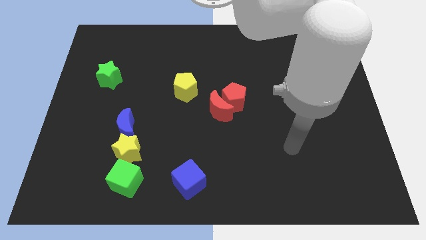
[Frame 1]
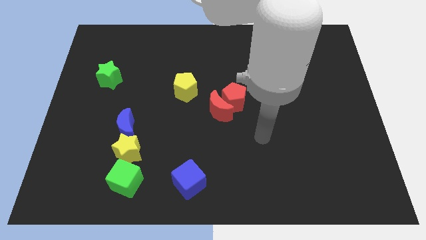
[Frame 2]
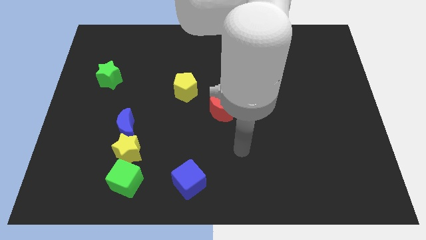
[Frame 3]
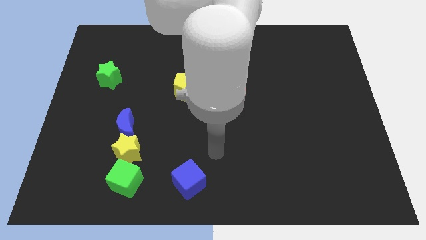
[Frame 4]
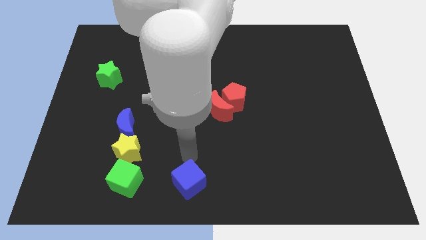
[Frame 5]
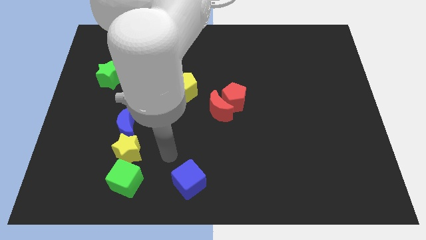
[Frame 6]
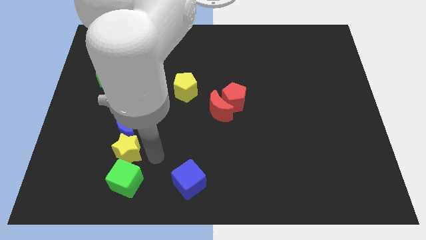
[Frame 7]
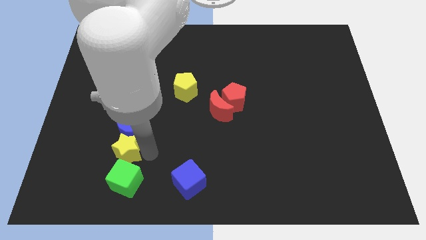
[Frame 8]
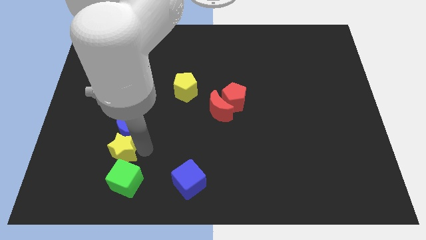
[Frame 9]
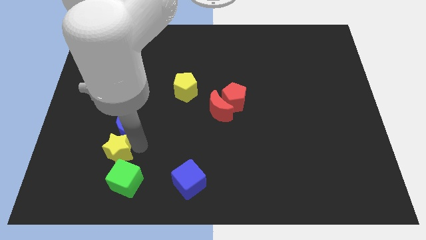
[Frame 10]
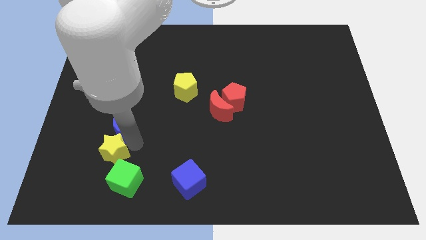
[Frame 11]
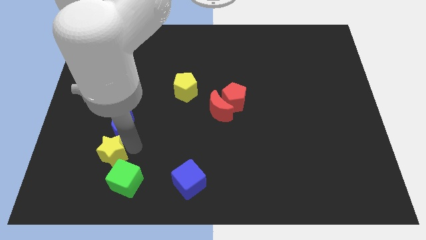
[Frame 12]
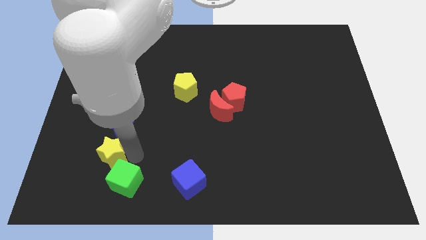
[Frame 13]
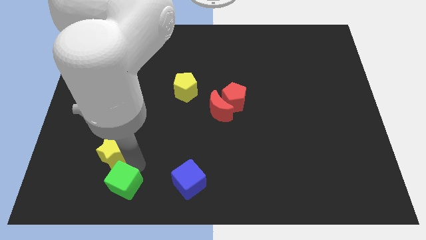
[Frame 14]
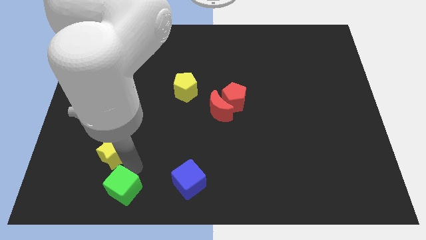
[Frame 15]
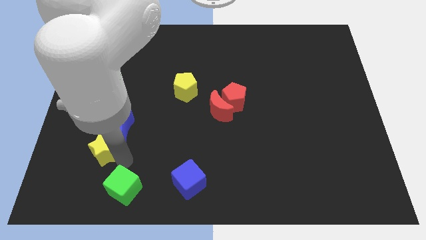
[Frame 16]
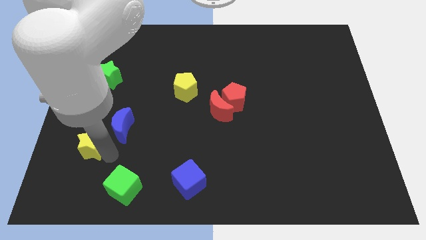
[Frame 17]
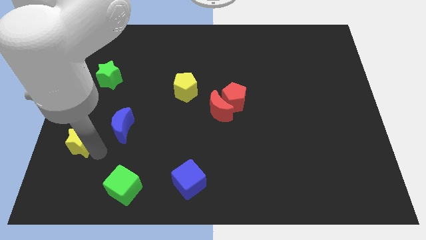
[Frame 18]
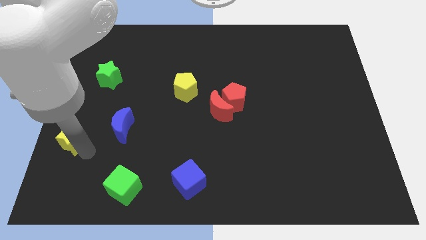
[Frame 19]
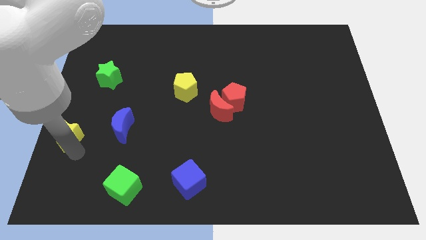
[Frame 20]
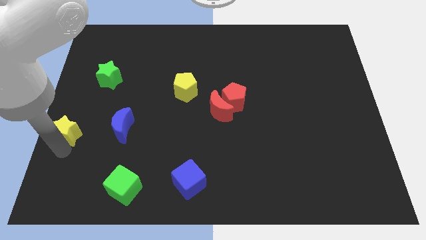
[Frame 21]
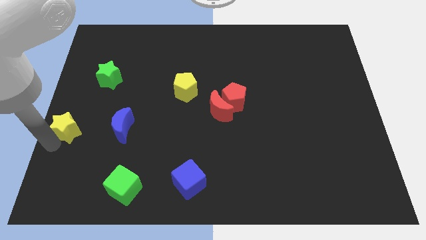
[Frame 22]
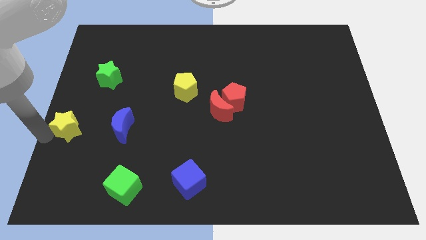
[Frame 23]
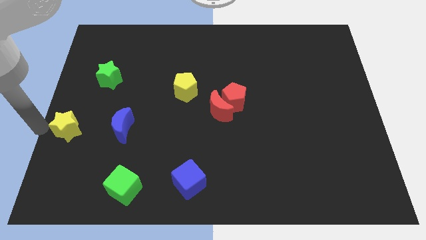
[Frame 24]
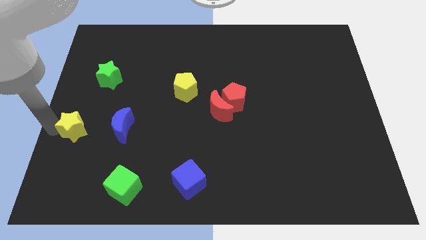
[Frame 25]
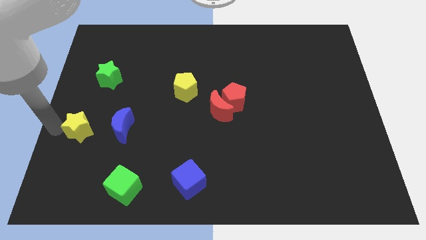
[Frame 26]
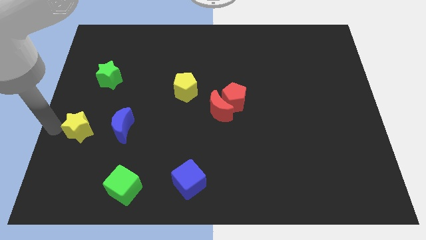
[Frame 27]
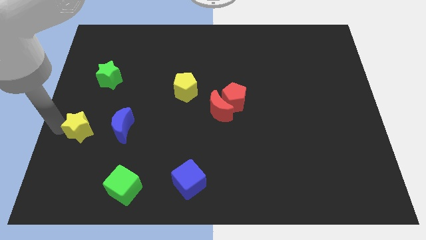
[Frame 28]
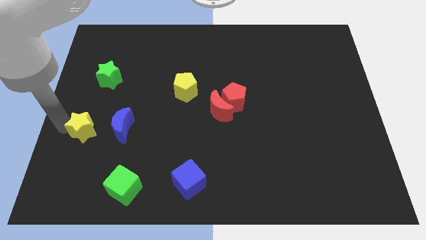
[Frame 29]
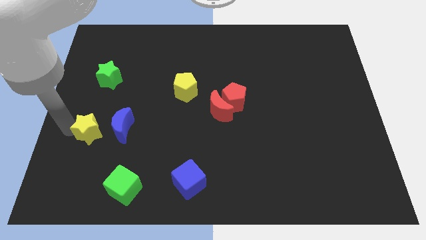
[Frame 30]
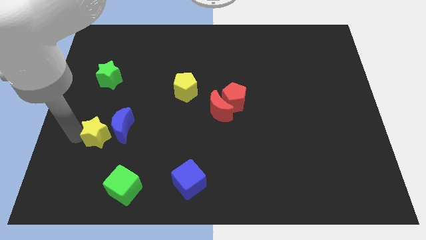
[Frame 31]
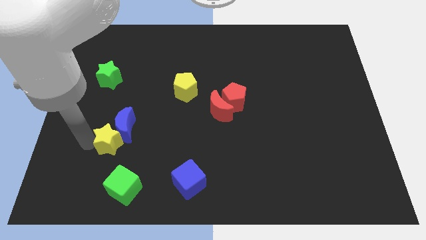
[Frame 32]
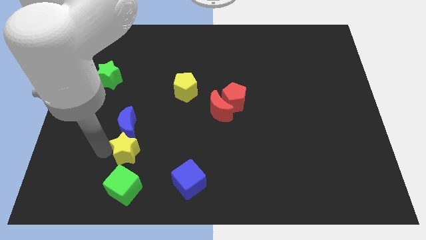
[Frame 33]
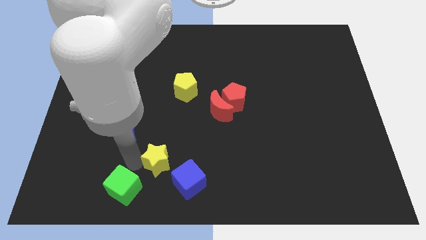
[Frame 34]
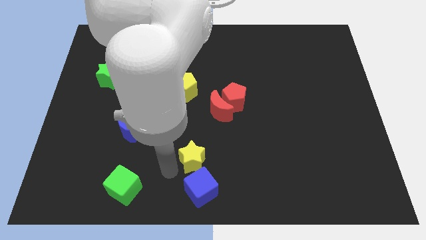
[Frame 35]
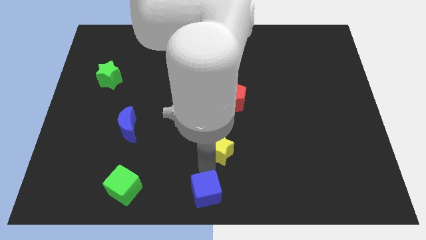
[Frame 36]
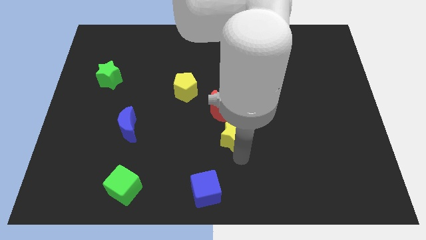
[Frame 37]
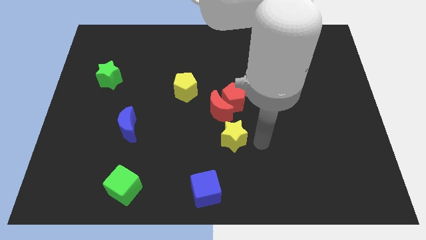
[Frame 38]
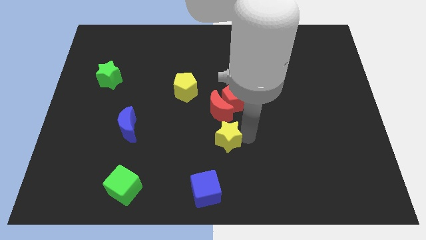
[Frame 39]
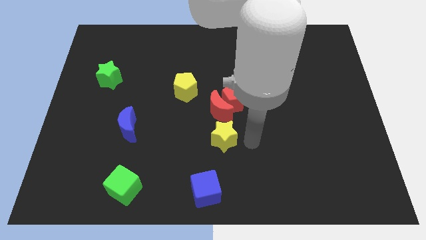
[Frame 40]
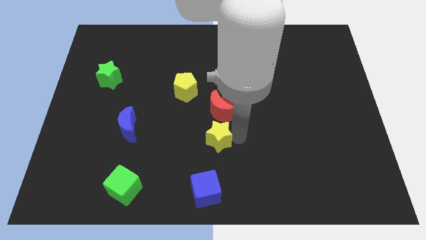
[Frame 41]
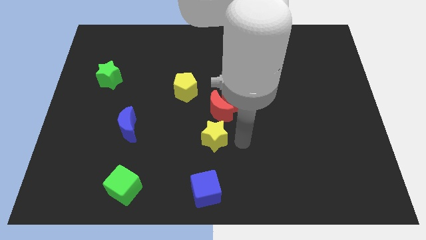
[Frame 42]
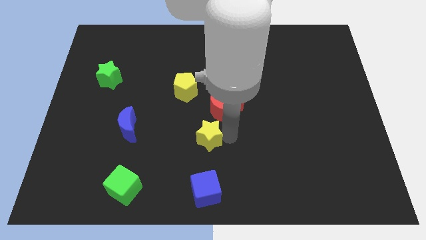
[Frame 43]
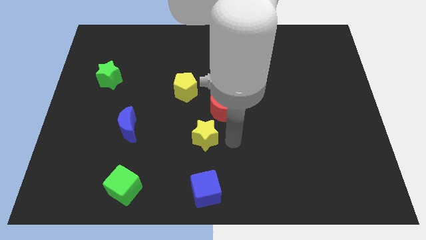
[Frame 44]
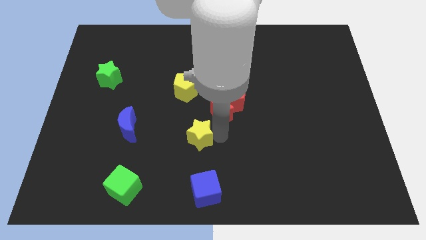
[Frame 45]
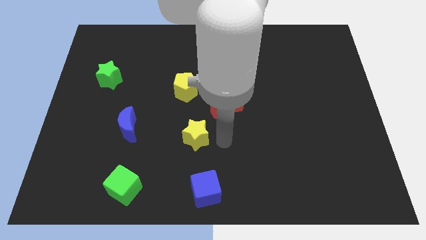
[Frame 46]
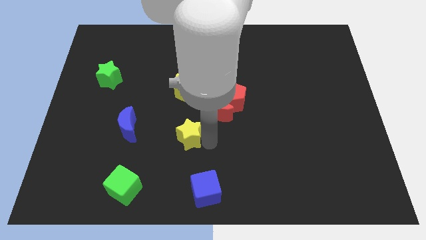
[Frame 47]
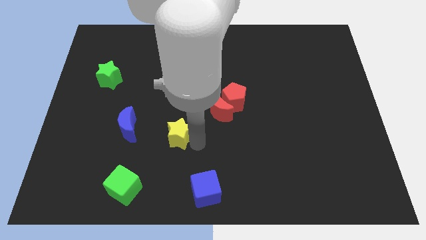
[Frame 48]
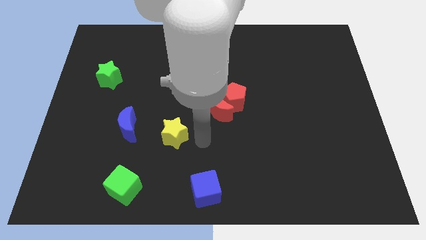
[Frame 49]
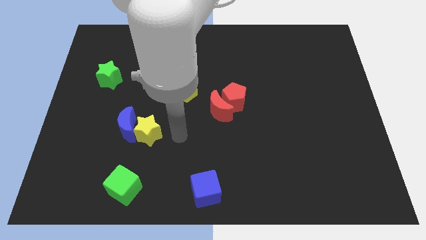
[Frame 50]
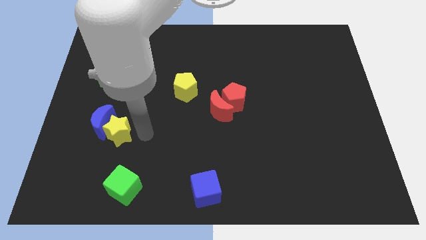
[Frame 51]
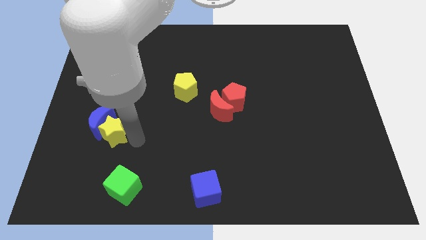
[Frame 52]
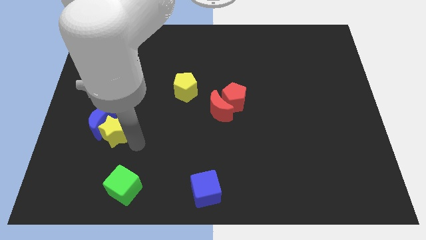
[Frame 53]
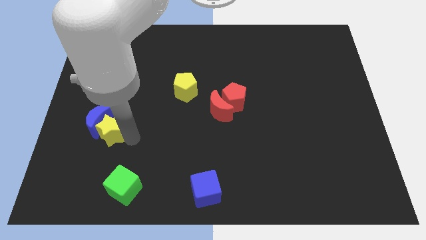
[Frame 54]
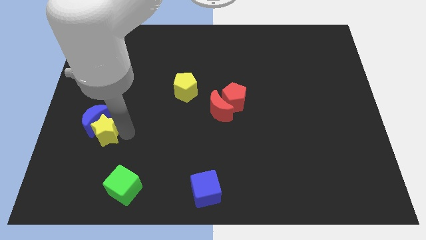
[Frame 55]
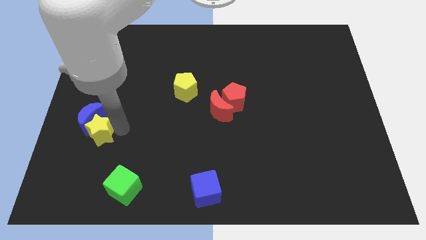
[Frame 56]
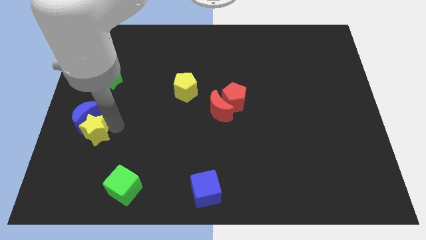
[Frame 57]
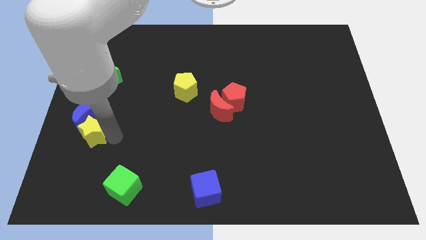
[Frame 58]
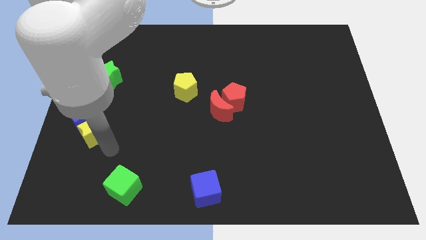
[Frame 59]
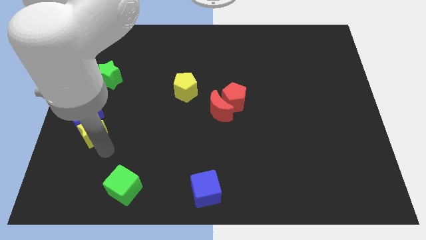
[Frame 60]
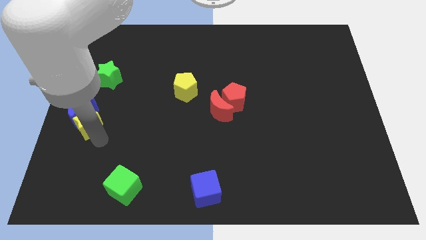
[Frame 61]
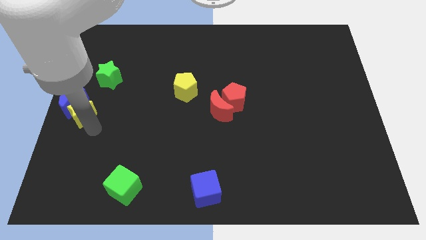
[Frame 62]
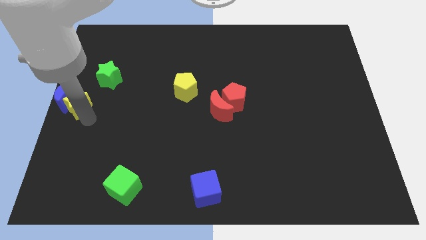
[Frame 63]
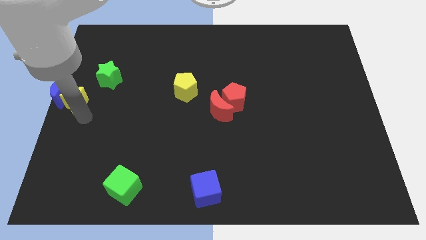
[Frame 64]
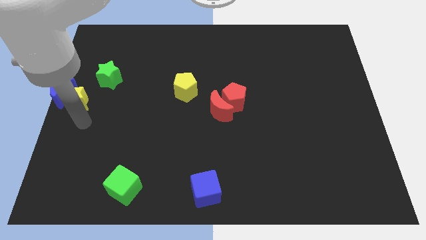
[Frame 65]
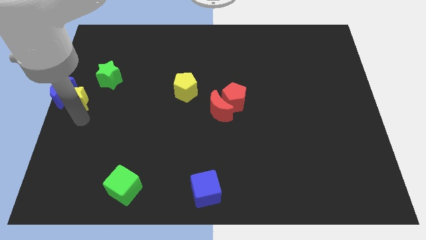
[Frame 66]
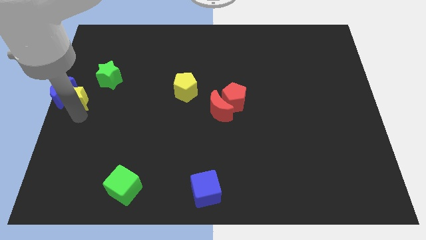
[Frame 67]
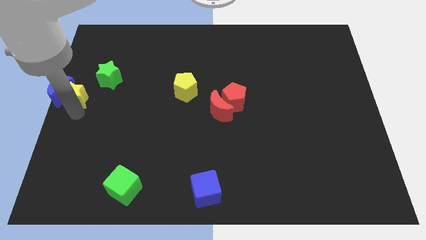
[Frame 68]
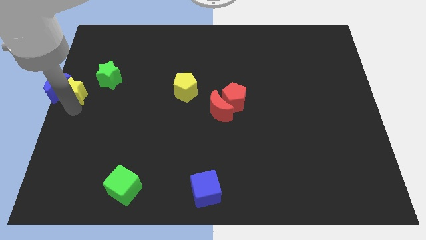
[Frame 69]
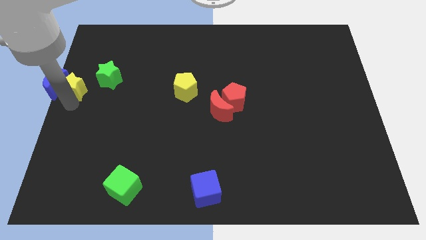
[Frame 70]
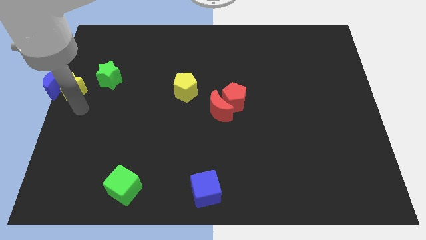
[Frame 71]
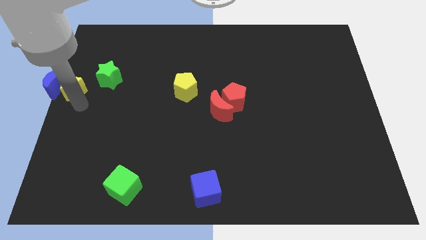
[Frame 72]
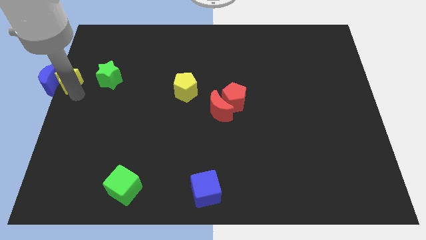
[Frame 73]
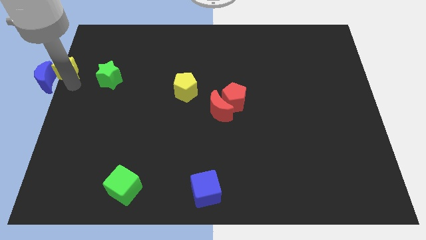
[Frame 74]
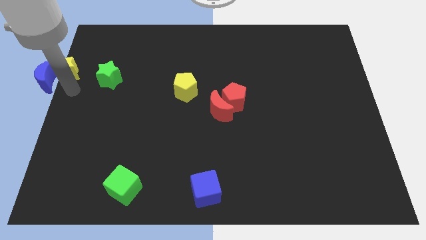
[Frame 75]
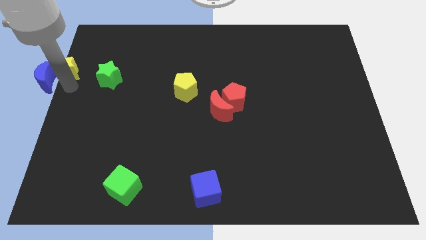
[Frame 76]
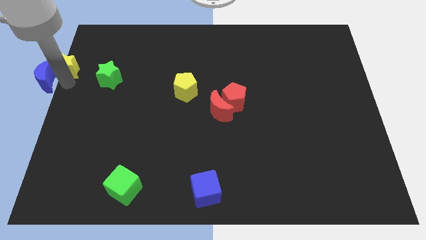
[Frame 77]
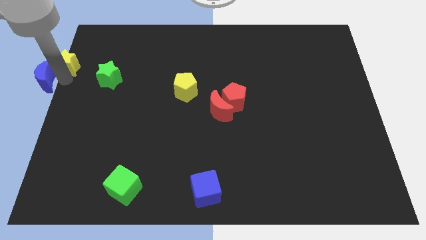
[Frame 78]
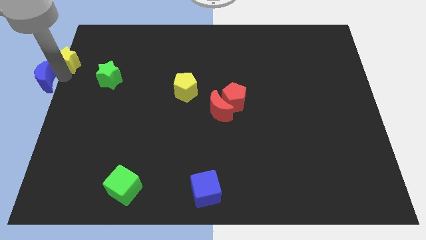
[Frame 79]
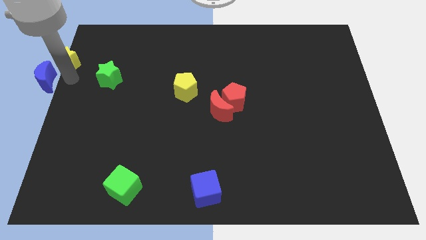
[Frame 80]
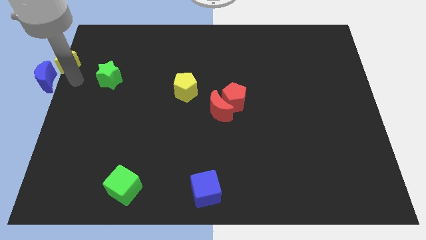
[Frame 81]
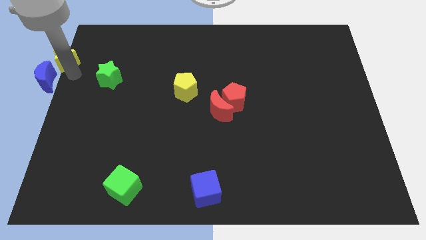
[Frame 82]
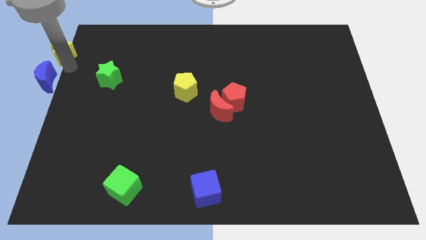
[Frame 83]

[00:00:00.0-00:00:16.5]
move the yellow star to the upper left corner

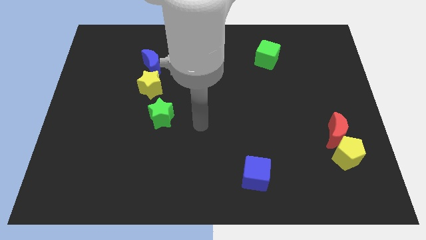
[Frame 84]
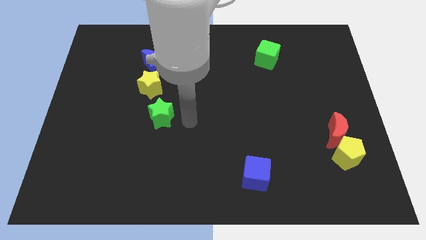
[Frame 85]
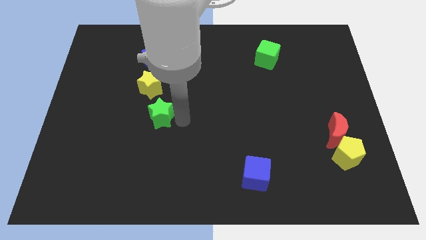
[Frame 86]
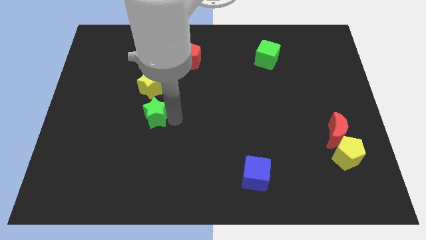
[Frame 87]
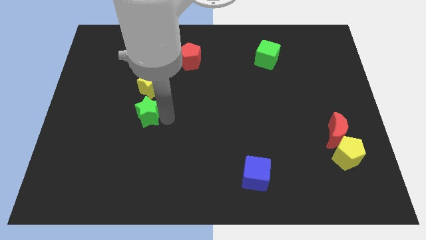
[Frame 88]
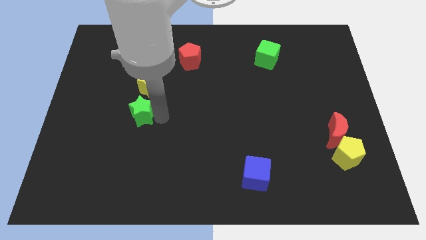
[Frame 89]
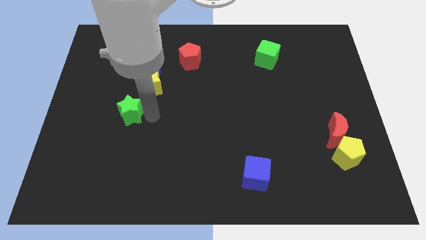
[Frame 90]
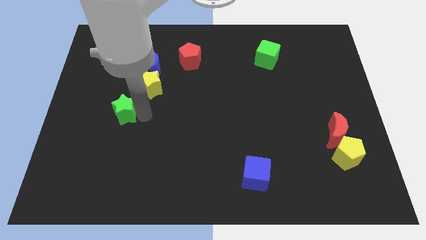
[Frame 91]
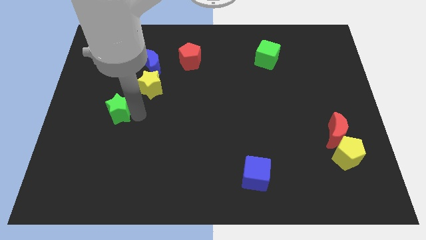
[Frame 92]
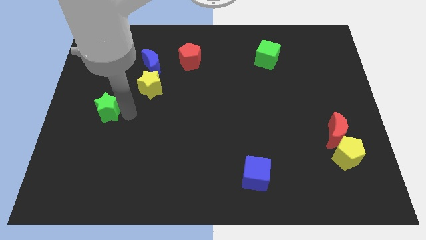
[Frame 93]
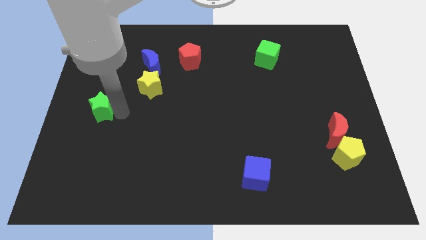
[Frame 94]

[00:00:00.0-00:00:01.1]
slide the green star to the left side
